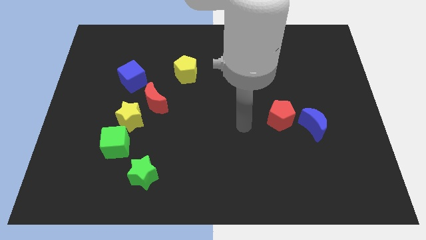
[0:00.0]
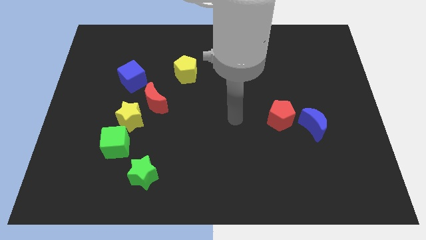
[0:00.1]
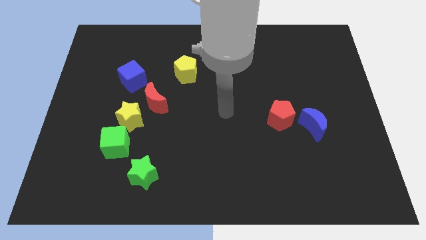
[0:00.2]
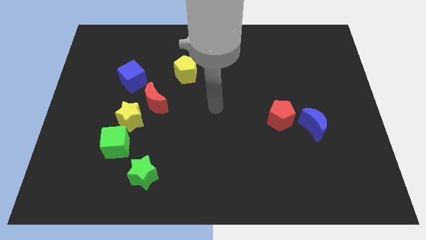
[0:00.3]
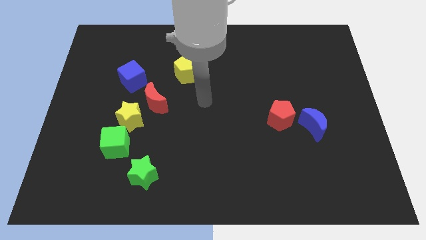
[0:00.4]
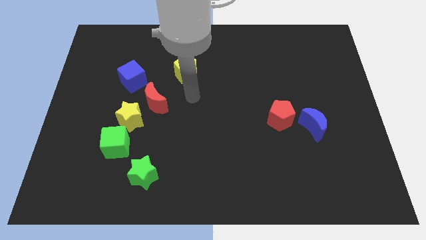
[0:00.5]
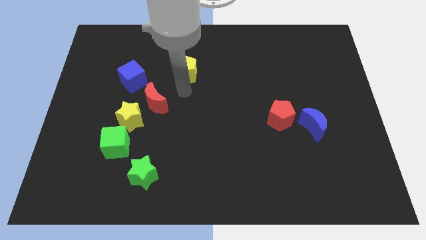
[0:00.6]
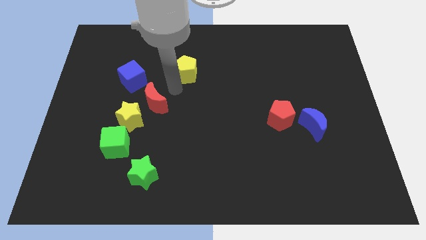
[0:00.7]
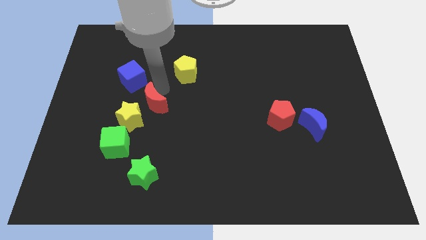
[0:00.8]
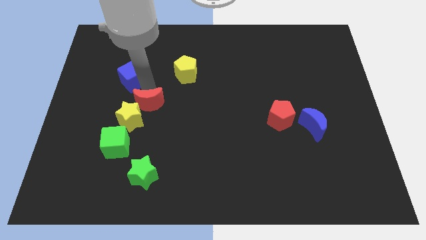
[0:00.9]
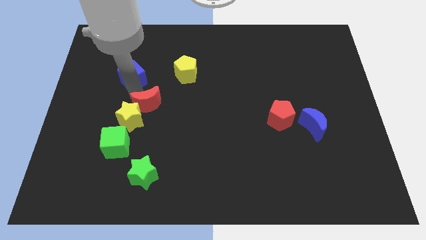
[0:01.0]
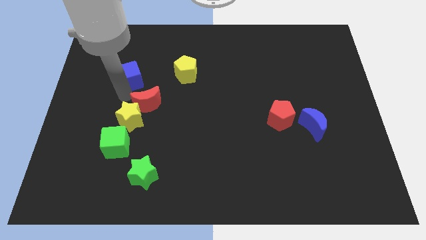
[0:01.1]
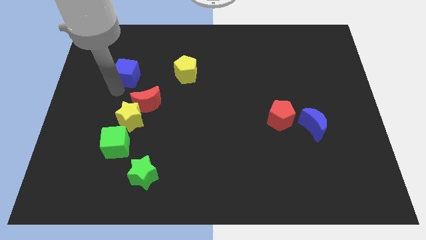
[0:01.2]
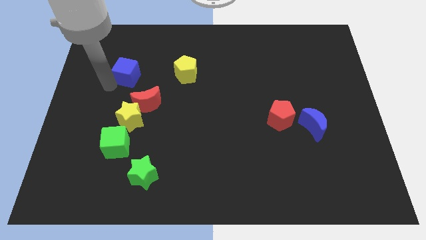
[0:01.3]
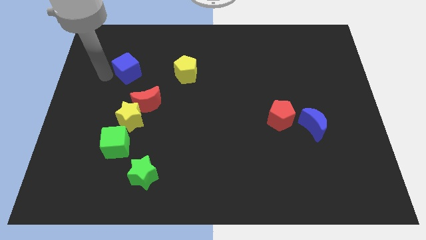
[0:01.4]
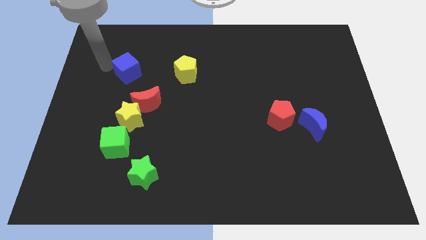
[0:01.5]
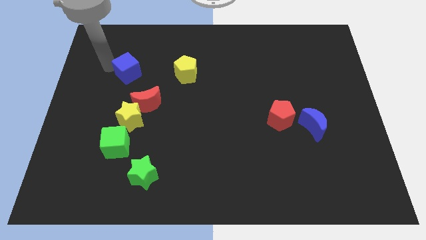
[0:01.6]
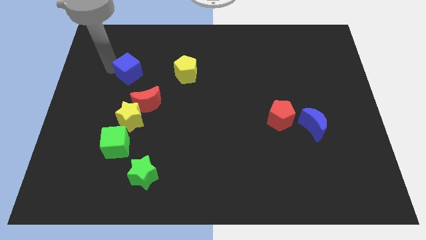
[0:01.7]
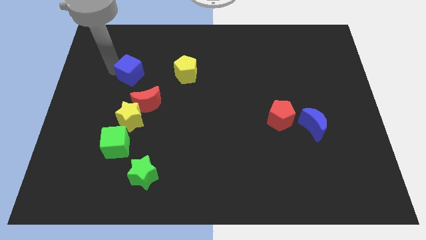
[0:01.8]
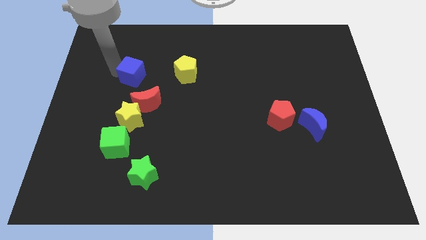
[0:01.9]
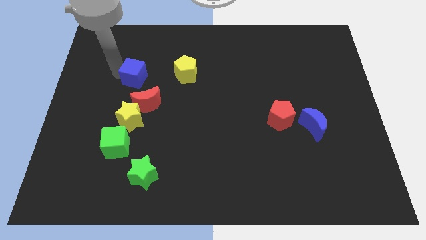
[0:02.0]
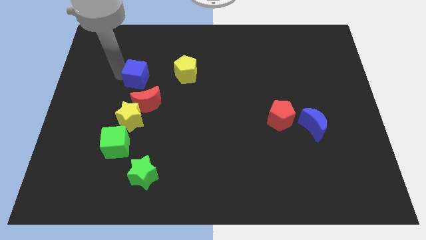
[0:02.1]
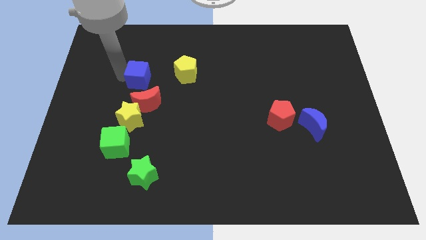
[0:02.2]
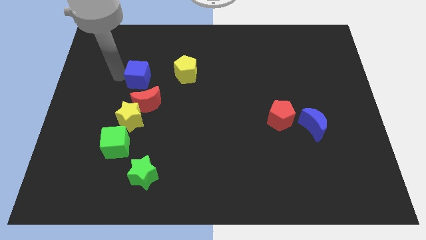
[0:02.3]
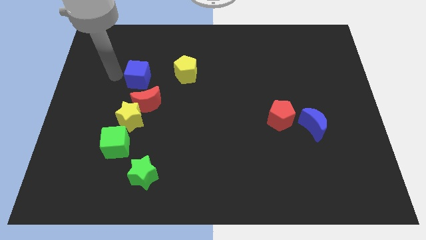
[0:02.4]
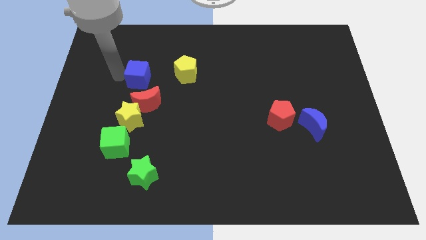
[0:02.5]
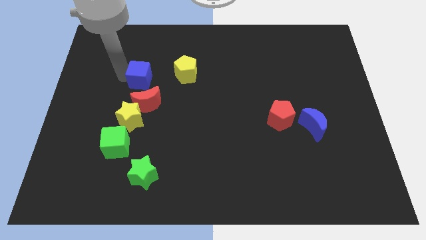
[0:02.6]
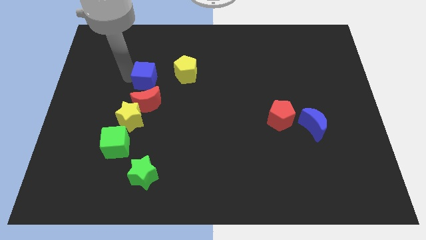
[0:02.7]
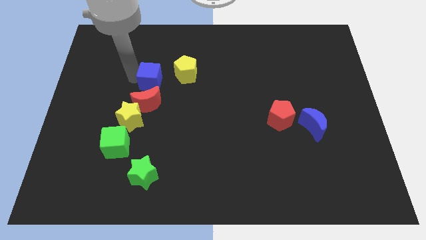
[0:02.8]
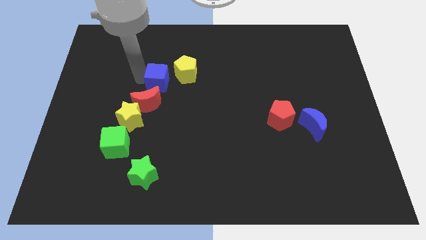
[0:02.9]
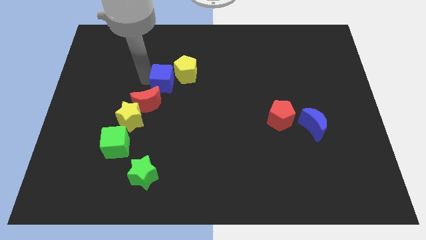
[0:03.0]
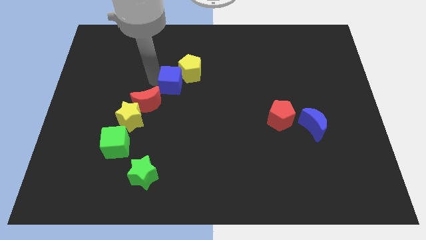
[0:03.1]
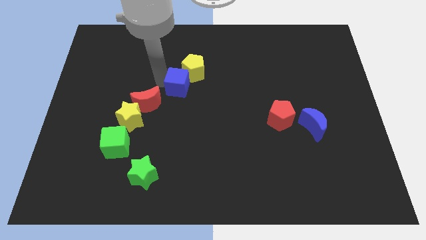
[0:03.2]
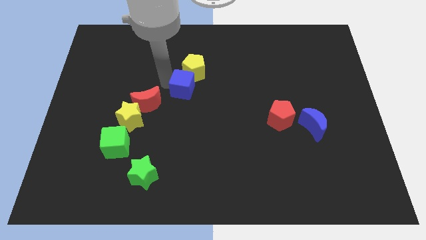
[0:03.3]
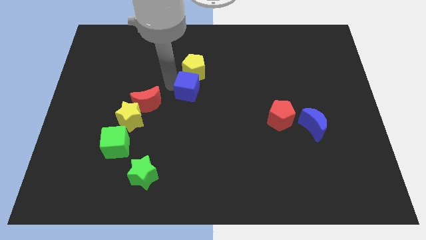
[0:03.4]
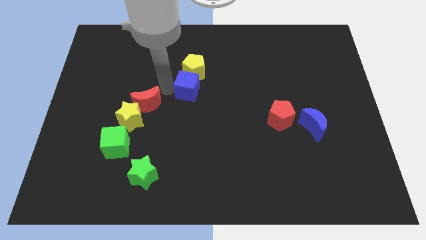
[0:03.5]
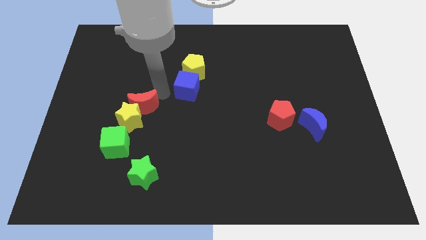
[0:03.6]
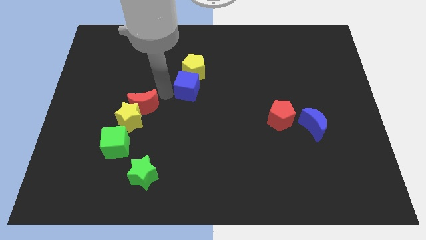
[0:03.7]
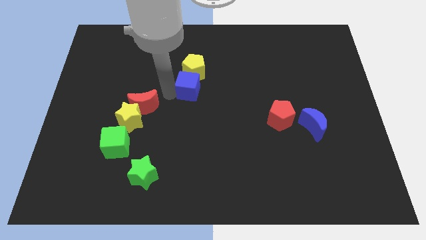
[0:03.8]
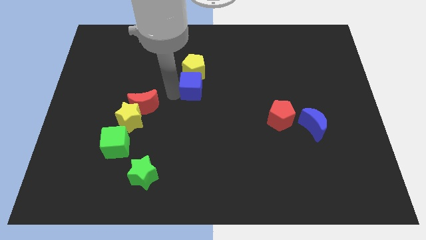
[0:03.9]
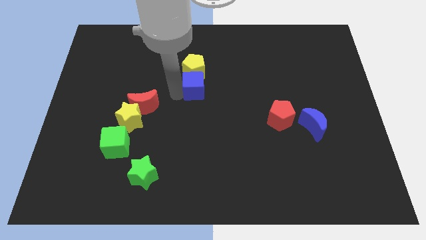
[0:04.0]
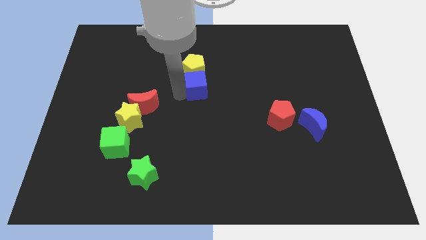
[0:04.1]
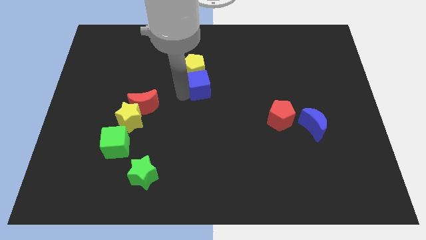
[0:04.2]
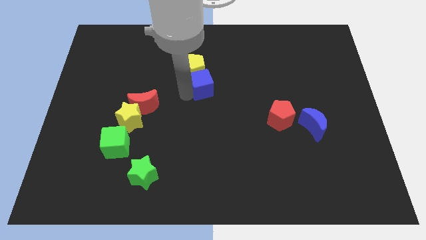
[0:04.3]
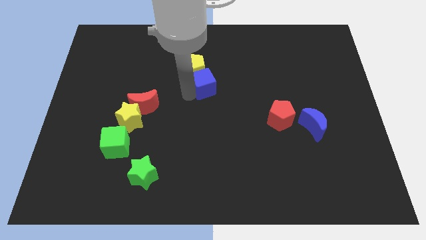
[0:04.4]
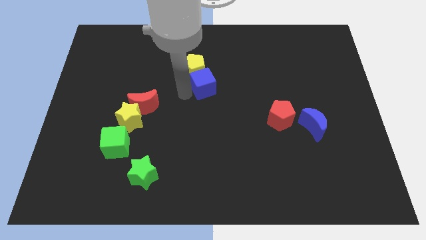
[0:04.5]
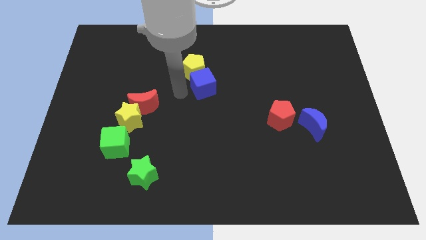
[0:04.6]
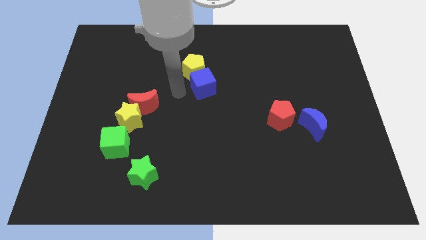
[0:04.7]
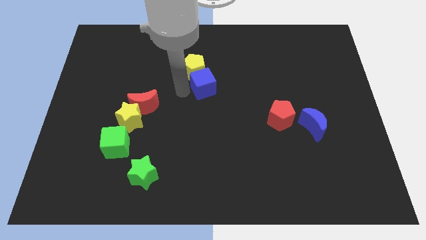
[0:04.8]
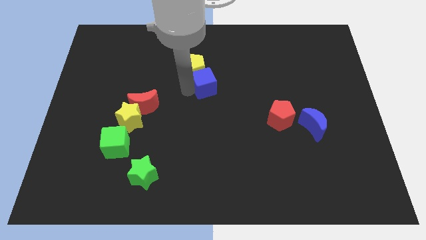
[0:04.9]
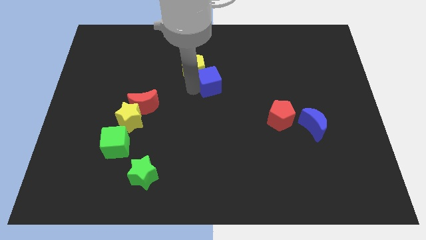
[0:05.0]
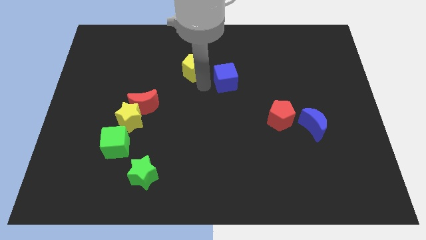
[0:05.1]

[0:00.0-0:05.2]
push the blue cube right

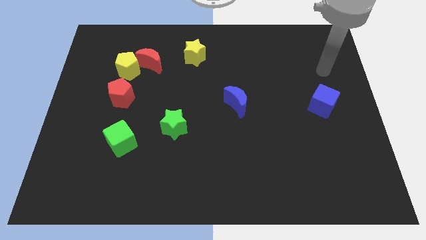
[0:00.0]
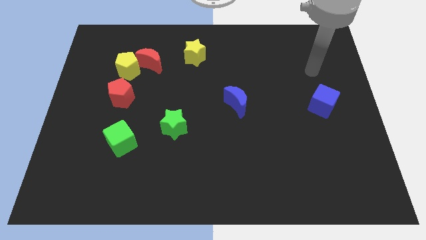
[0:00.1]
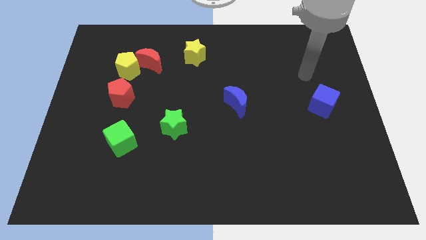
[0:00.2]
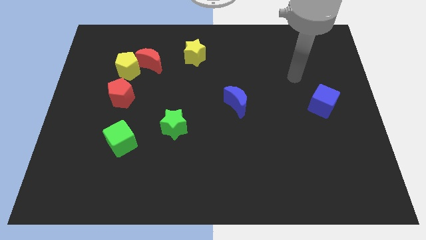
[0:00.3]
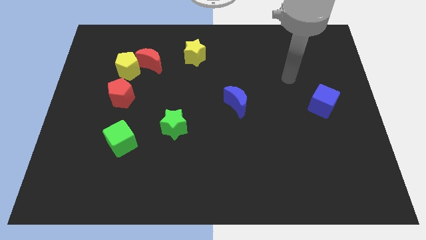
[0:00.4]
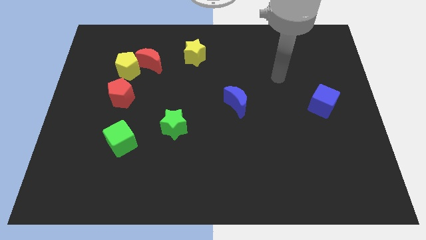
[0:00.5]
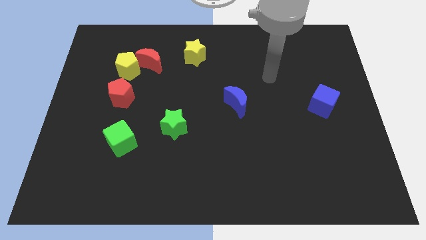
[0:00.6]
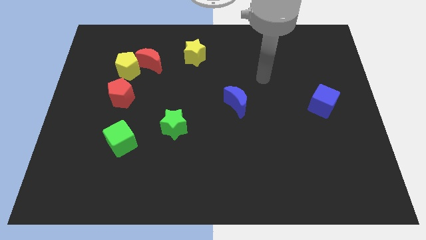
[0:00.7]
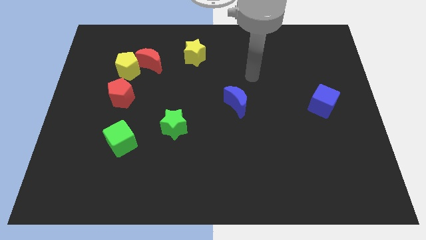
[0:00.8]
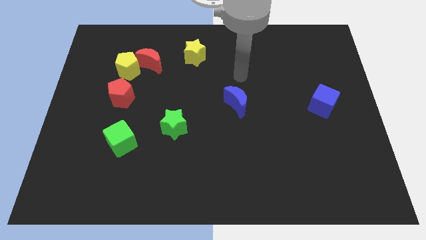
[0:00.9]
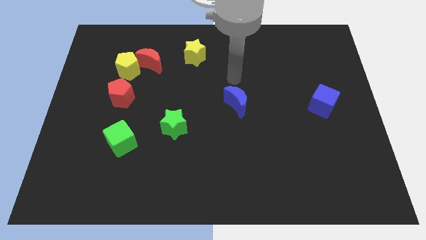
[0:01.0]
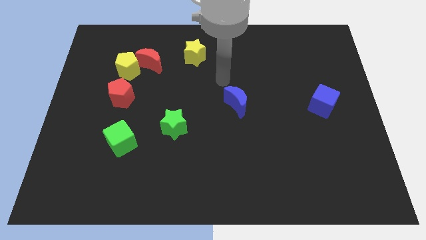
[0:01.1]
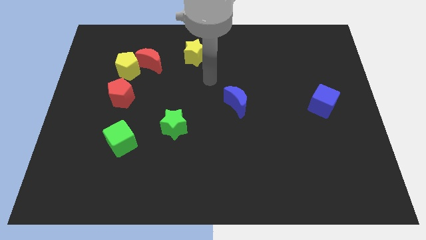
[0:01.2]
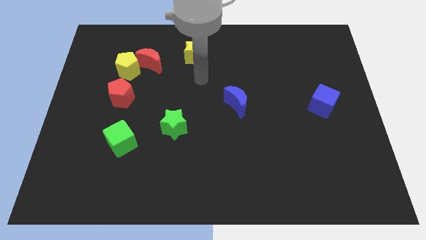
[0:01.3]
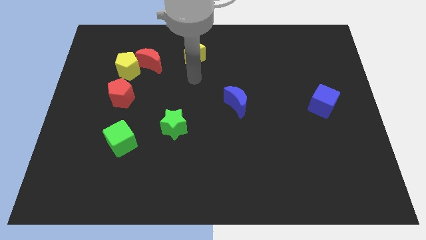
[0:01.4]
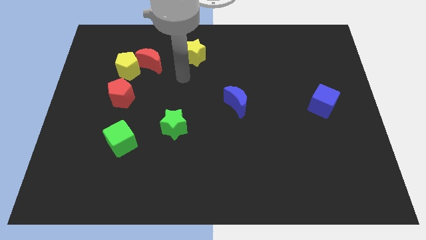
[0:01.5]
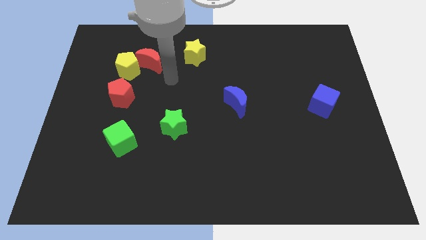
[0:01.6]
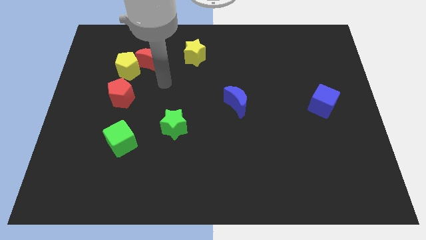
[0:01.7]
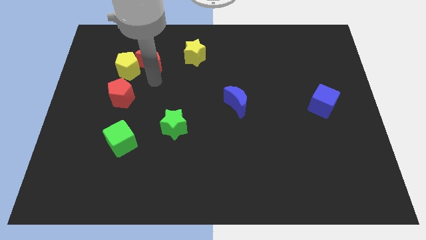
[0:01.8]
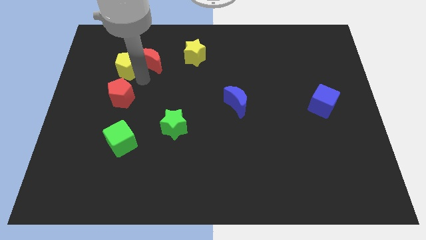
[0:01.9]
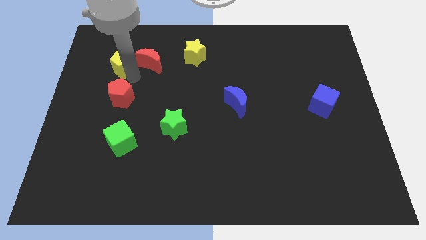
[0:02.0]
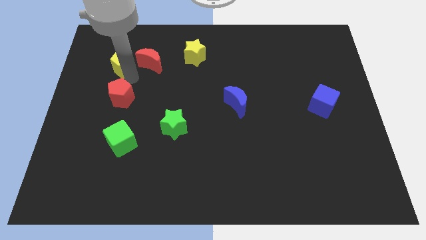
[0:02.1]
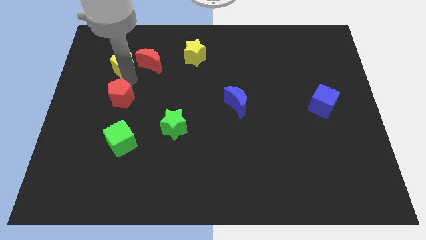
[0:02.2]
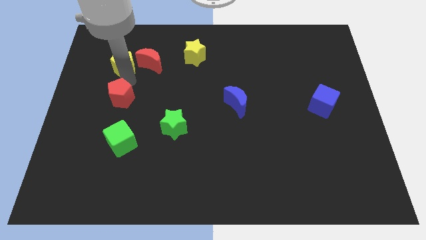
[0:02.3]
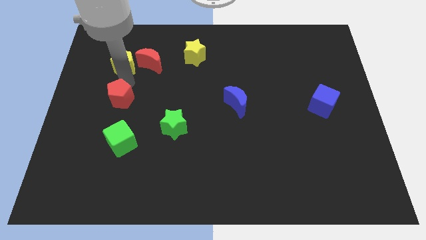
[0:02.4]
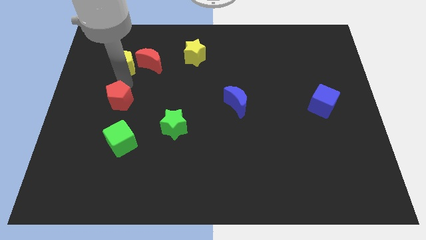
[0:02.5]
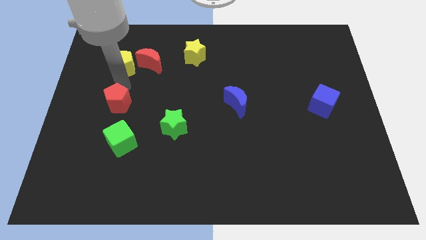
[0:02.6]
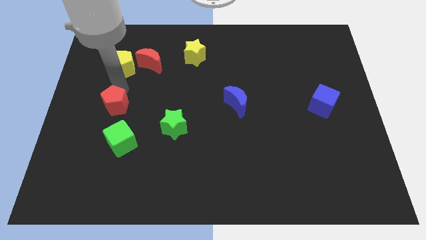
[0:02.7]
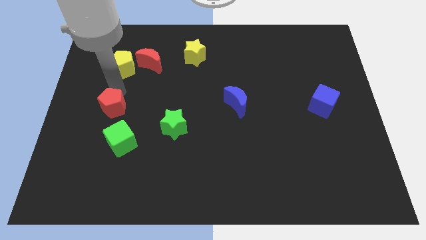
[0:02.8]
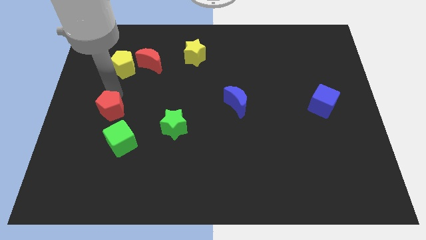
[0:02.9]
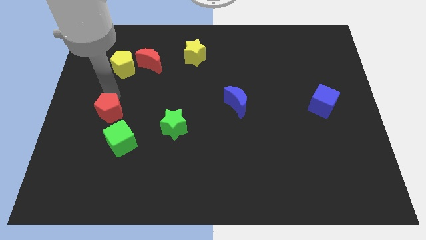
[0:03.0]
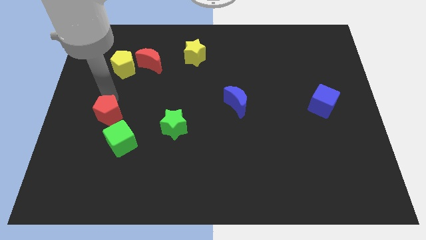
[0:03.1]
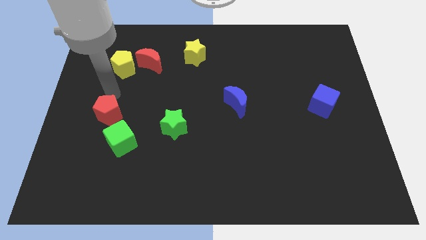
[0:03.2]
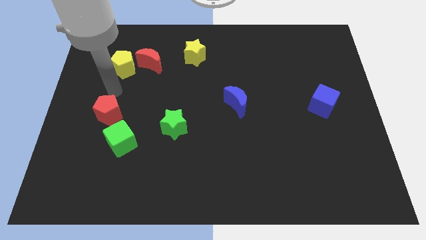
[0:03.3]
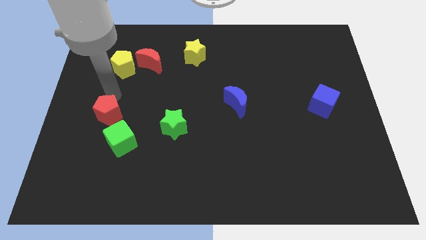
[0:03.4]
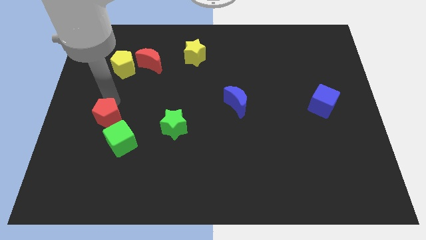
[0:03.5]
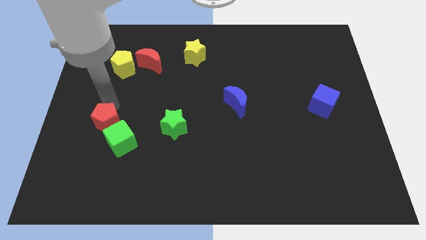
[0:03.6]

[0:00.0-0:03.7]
slide the red pentagon a little bit down
